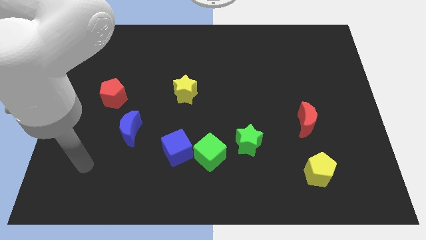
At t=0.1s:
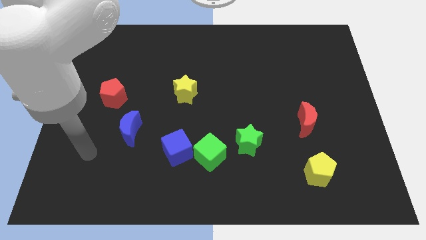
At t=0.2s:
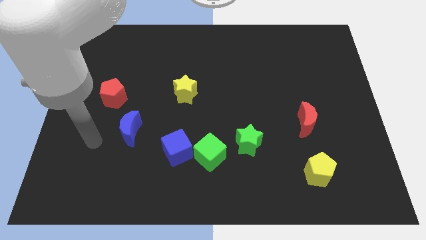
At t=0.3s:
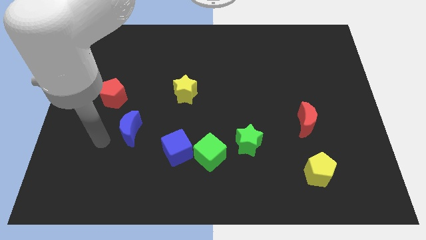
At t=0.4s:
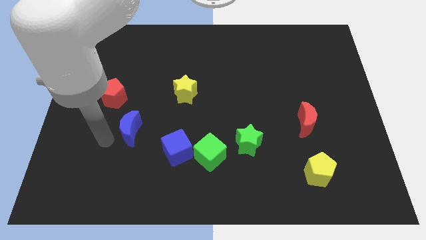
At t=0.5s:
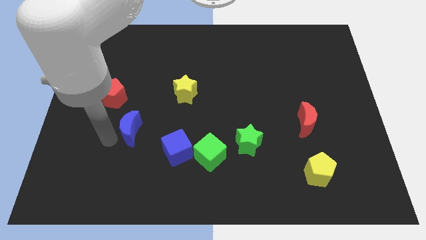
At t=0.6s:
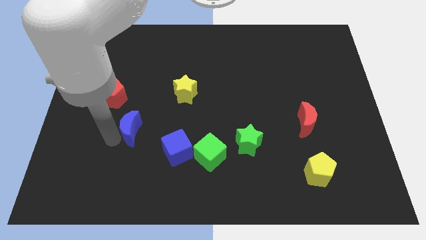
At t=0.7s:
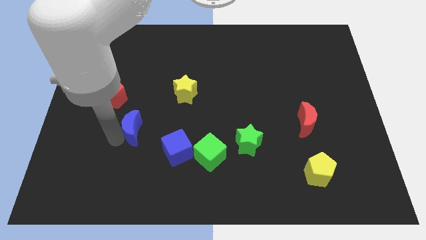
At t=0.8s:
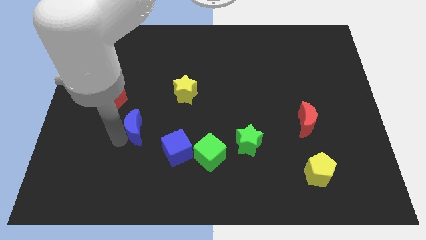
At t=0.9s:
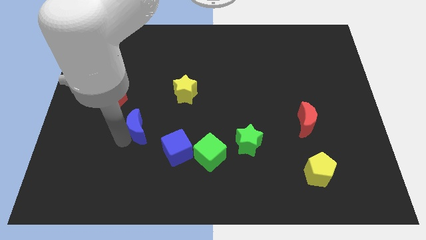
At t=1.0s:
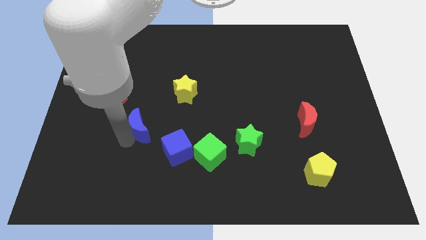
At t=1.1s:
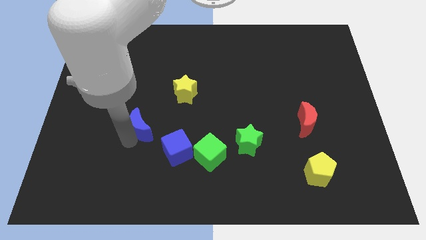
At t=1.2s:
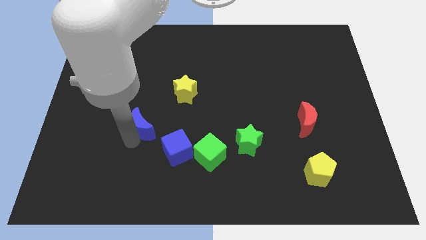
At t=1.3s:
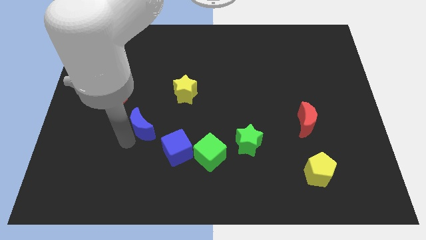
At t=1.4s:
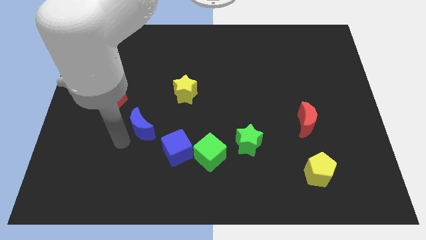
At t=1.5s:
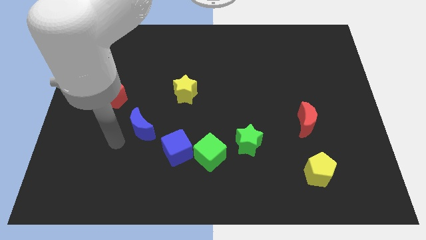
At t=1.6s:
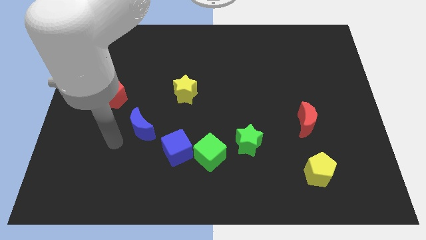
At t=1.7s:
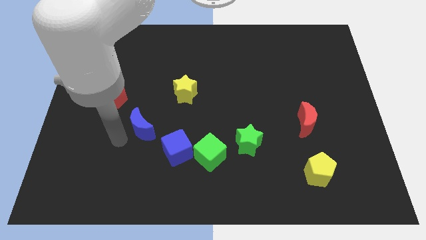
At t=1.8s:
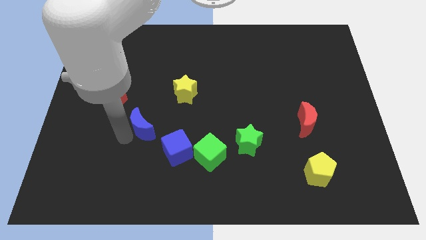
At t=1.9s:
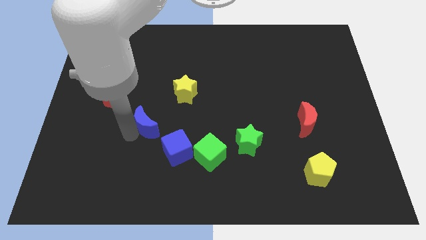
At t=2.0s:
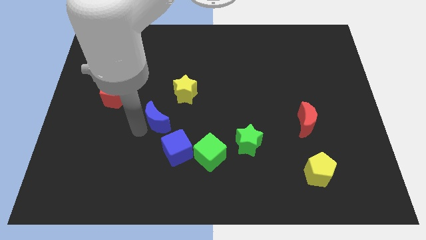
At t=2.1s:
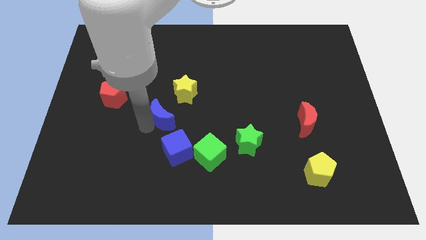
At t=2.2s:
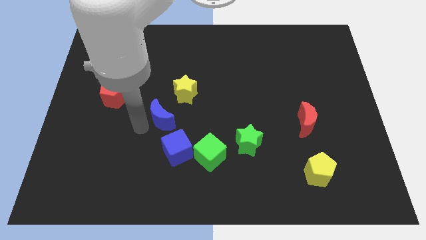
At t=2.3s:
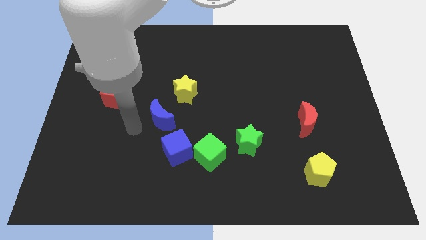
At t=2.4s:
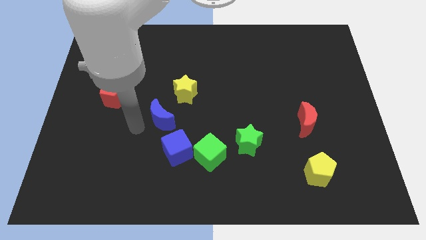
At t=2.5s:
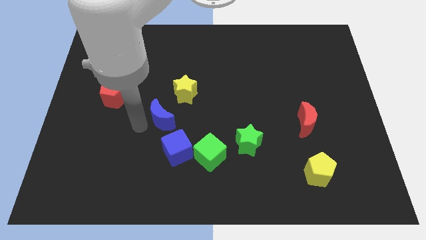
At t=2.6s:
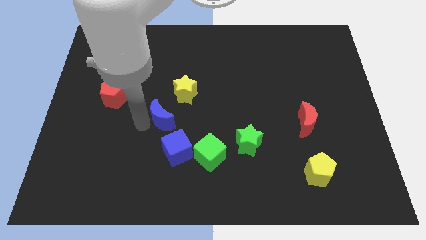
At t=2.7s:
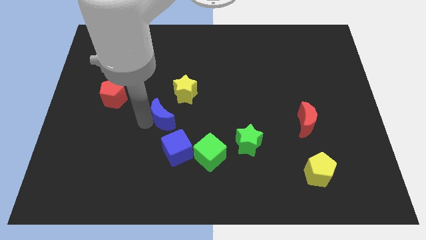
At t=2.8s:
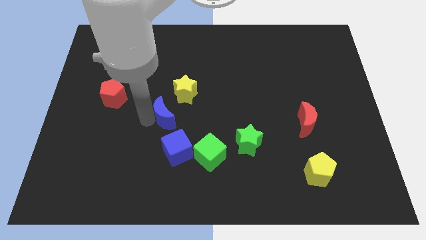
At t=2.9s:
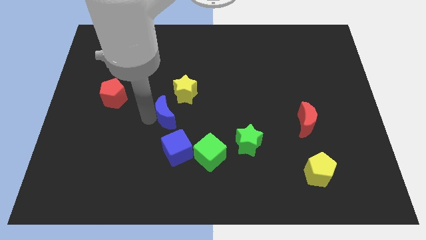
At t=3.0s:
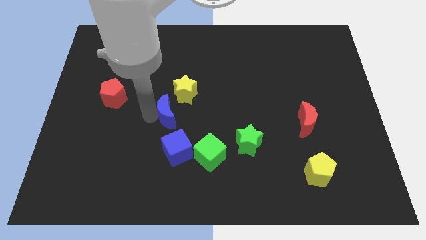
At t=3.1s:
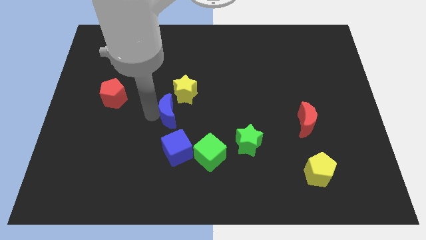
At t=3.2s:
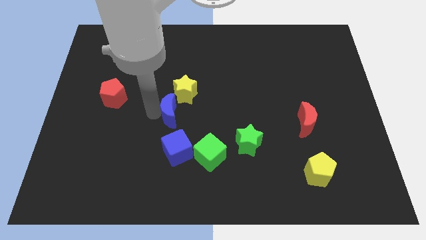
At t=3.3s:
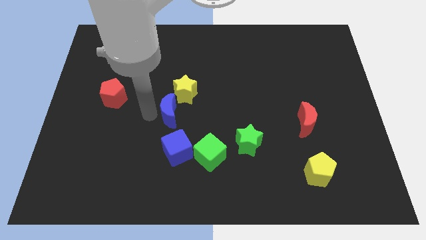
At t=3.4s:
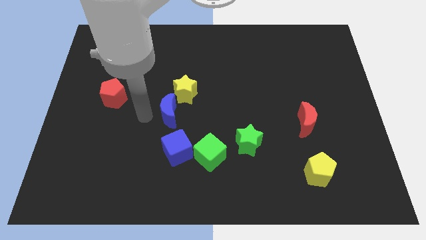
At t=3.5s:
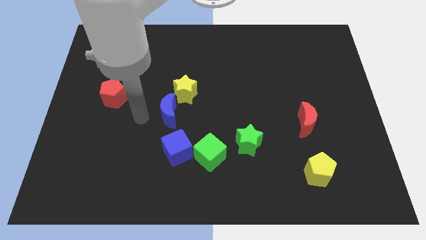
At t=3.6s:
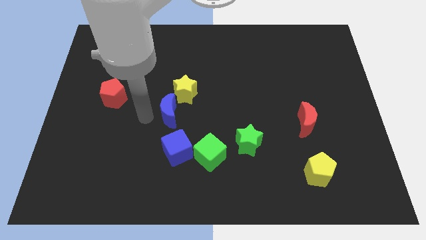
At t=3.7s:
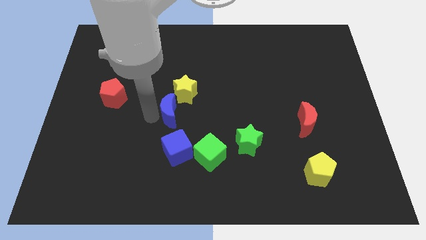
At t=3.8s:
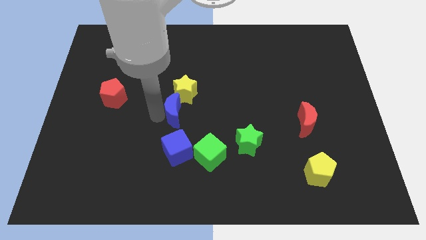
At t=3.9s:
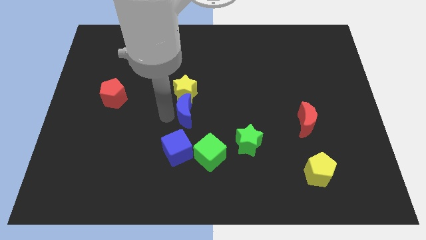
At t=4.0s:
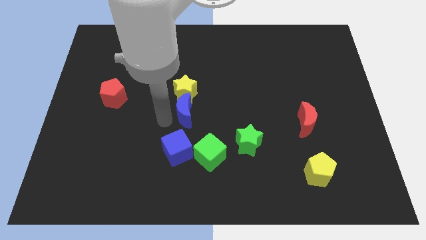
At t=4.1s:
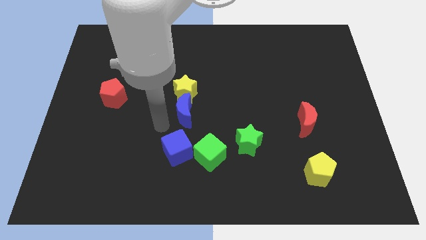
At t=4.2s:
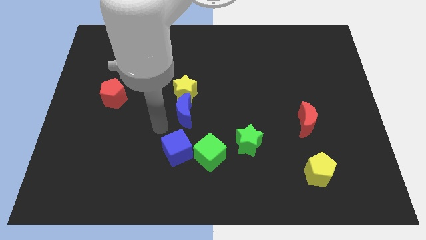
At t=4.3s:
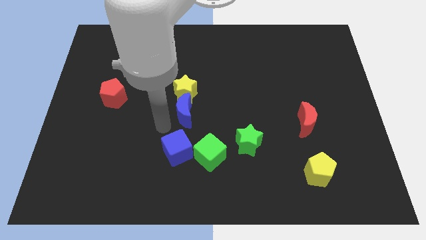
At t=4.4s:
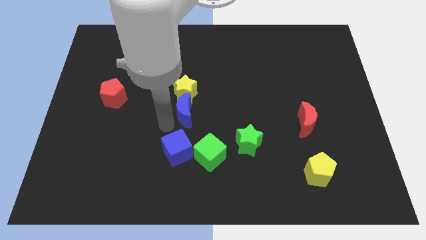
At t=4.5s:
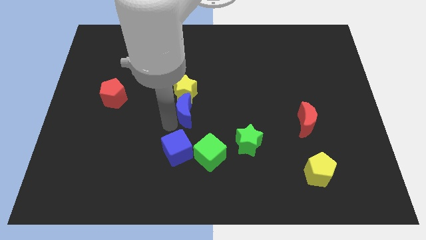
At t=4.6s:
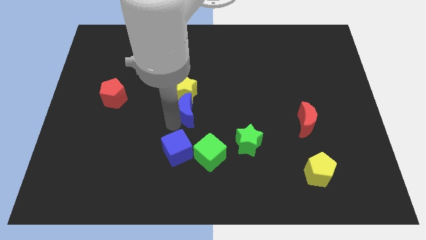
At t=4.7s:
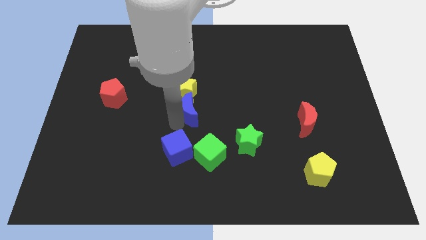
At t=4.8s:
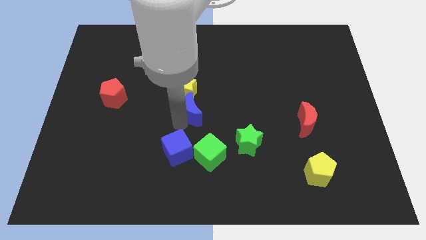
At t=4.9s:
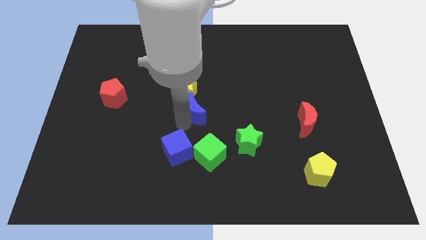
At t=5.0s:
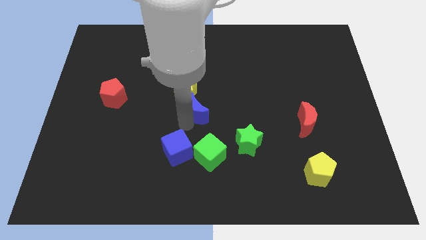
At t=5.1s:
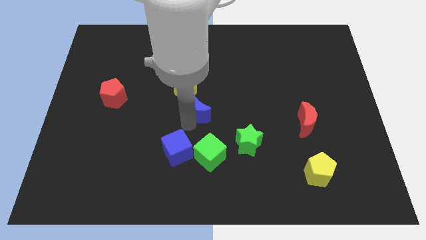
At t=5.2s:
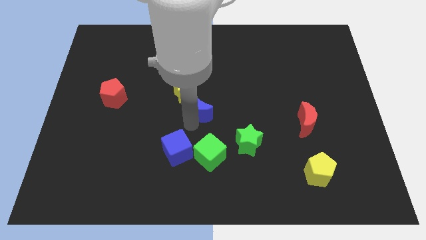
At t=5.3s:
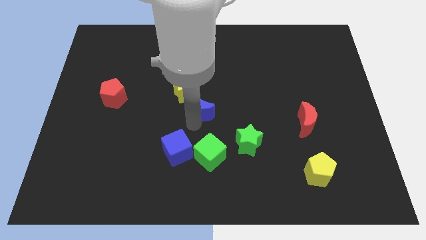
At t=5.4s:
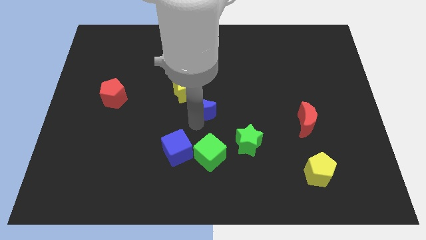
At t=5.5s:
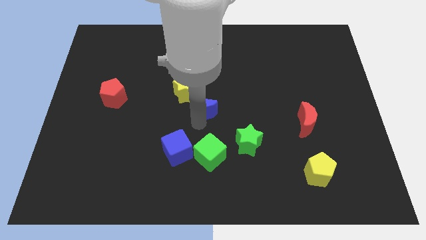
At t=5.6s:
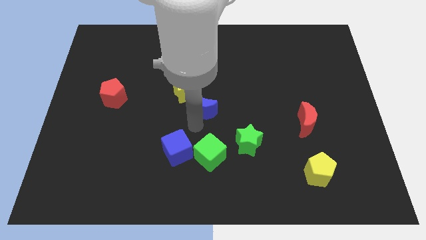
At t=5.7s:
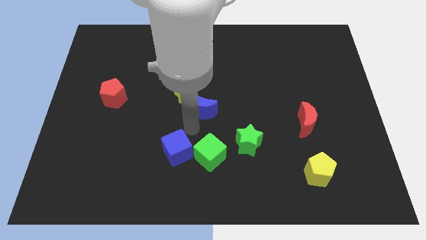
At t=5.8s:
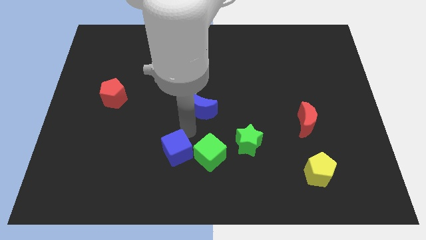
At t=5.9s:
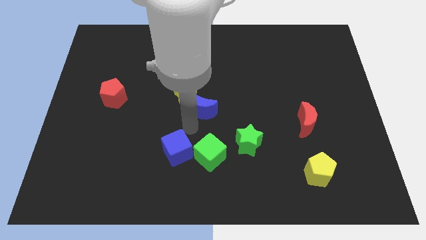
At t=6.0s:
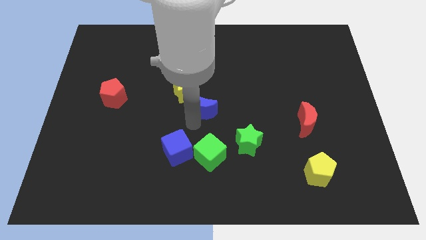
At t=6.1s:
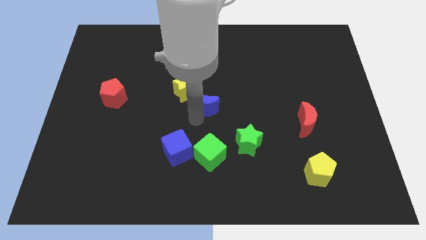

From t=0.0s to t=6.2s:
slide the blue moon just right of the yellow star

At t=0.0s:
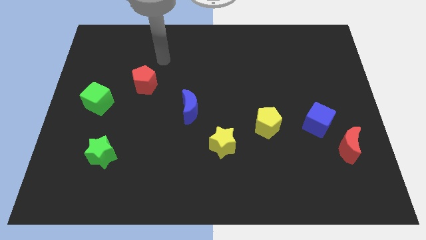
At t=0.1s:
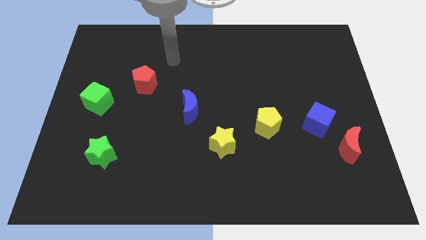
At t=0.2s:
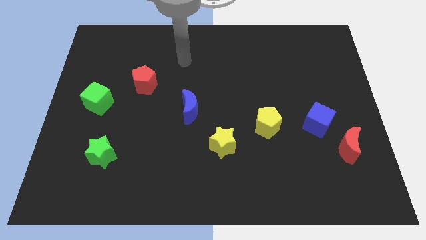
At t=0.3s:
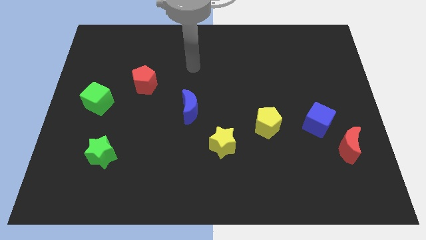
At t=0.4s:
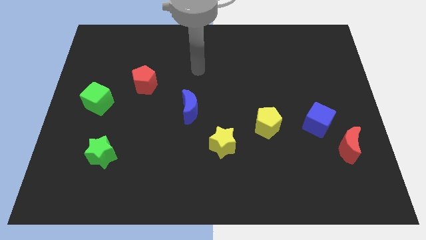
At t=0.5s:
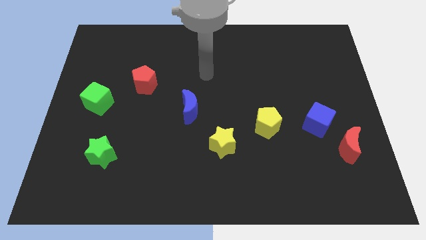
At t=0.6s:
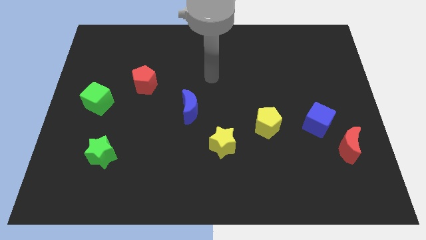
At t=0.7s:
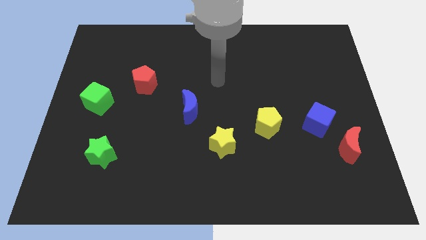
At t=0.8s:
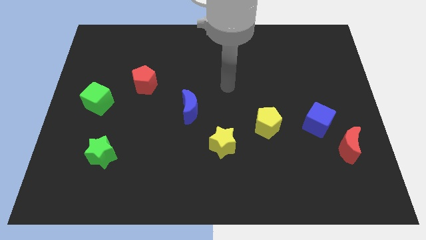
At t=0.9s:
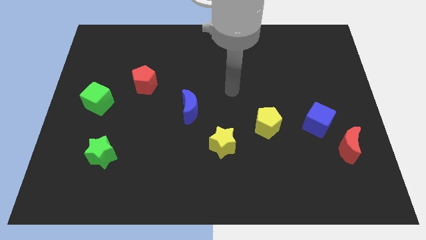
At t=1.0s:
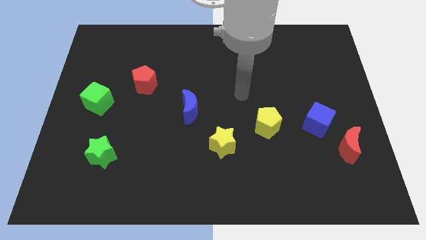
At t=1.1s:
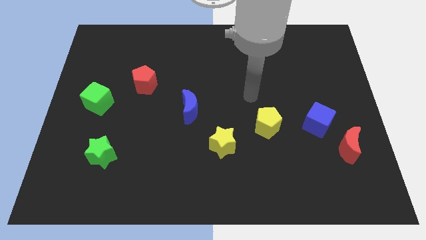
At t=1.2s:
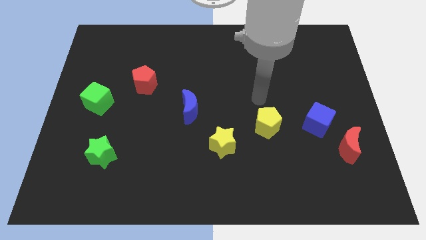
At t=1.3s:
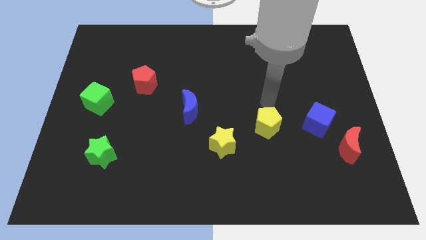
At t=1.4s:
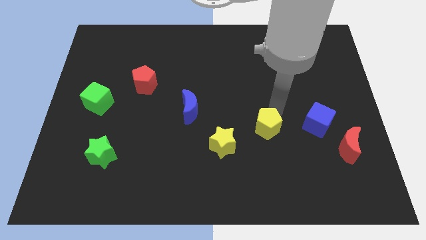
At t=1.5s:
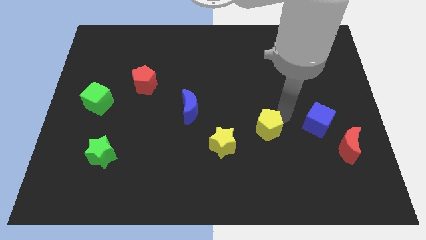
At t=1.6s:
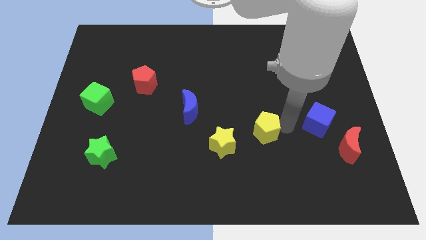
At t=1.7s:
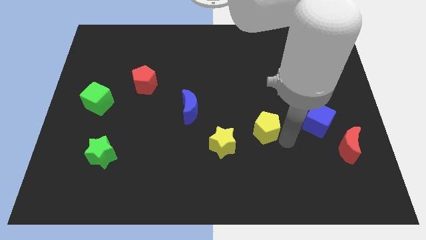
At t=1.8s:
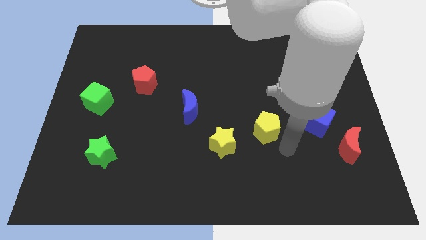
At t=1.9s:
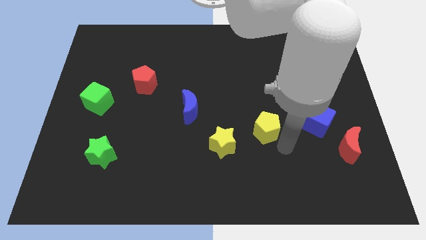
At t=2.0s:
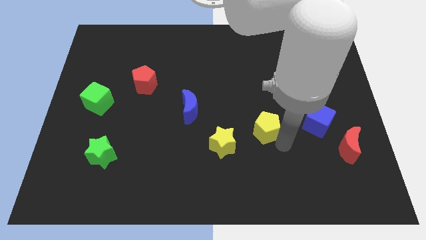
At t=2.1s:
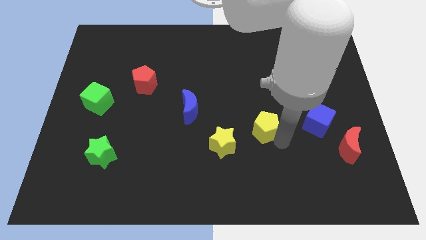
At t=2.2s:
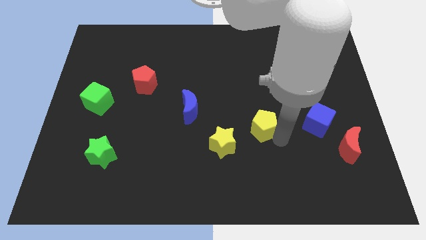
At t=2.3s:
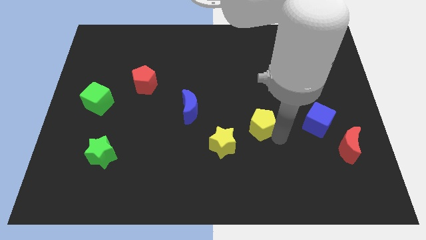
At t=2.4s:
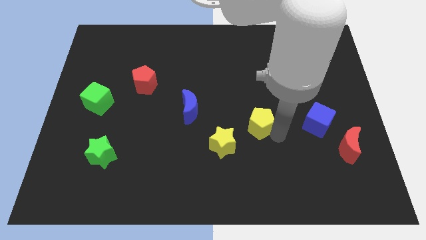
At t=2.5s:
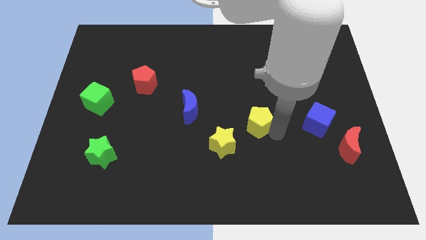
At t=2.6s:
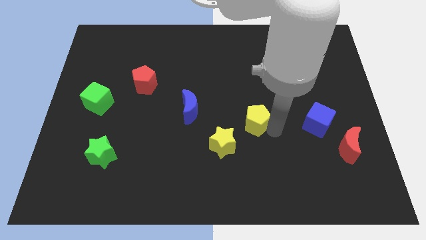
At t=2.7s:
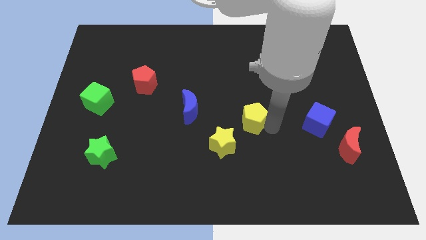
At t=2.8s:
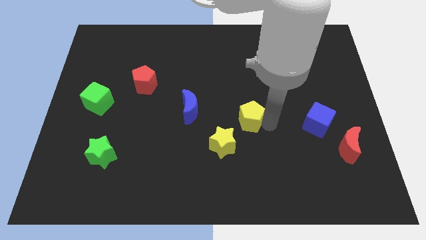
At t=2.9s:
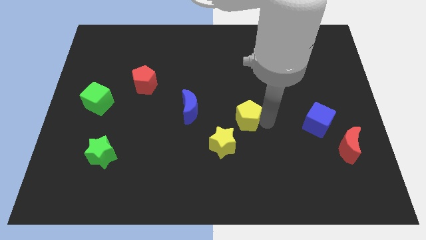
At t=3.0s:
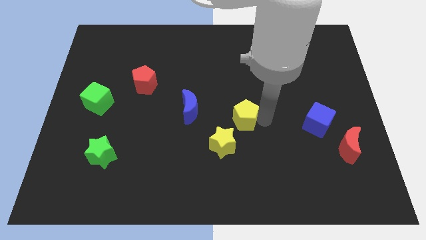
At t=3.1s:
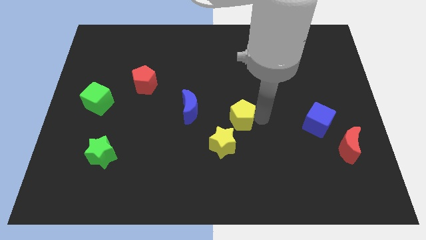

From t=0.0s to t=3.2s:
slide the yellow pentagon to the top of the yellow star
